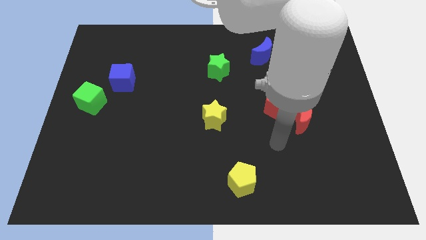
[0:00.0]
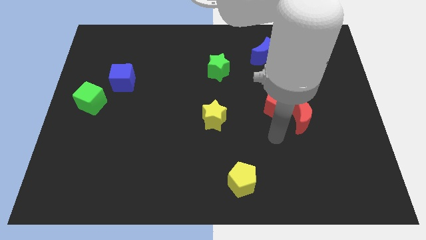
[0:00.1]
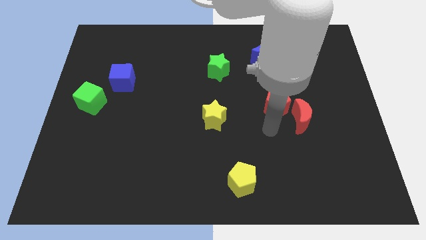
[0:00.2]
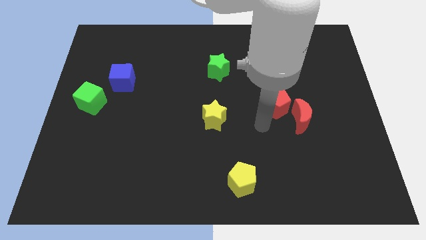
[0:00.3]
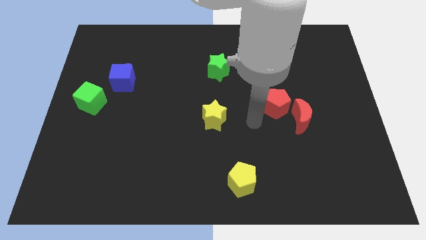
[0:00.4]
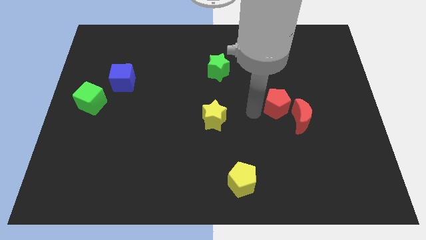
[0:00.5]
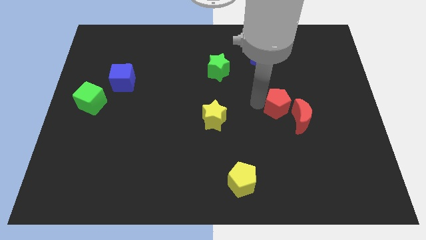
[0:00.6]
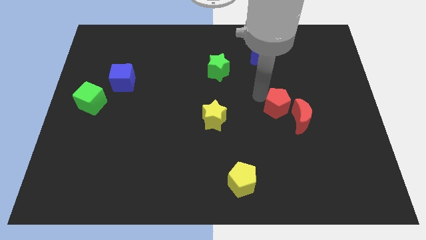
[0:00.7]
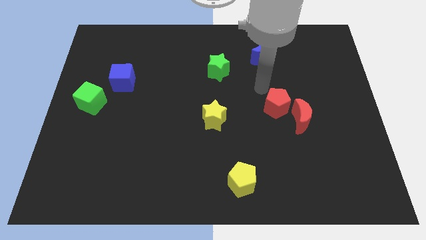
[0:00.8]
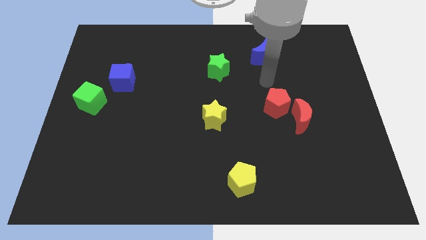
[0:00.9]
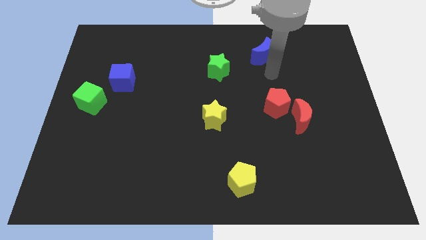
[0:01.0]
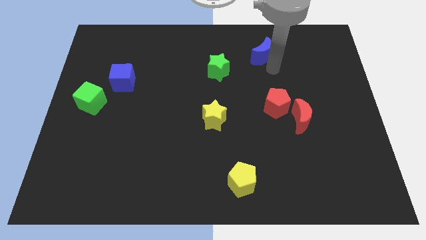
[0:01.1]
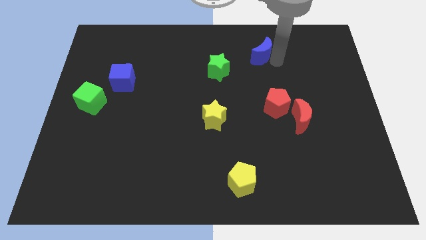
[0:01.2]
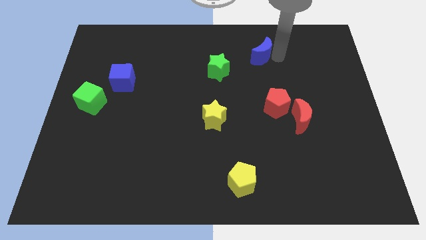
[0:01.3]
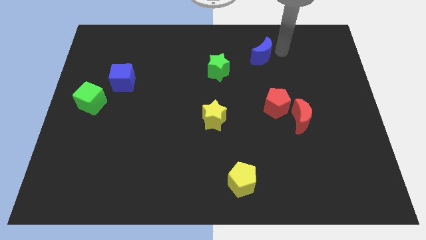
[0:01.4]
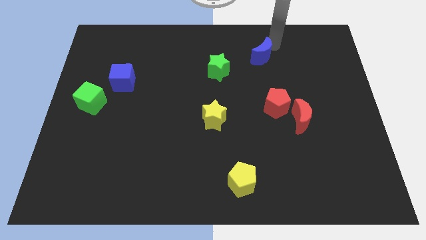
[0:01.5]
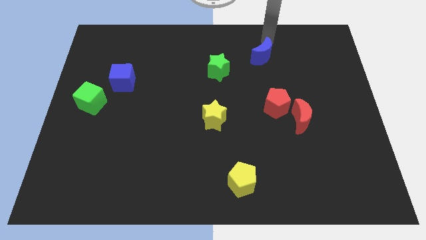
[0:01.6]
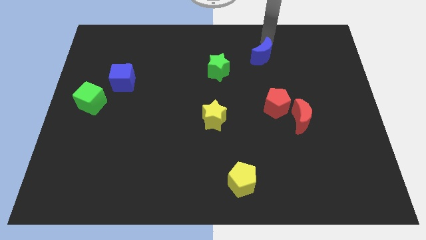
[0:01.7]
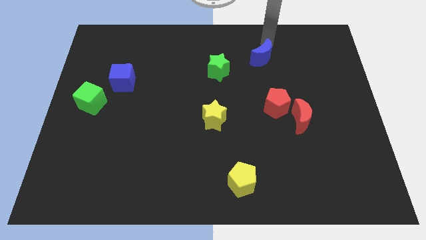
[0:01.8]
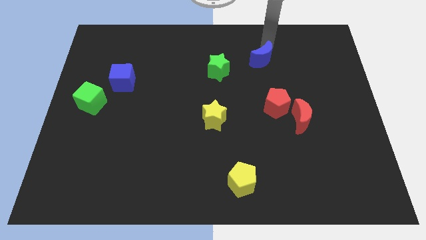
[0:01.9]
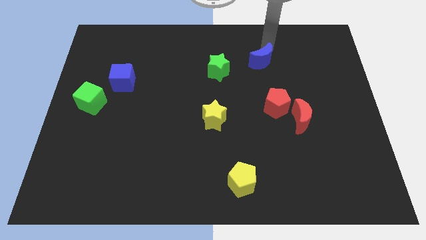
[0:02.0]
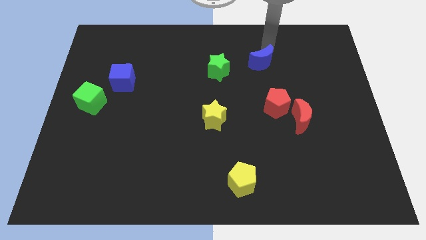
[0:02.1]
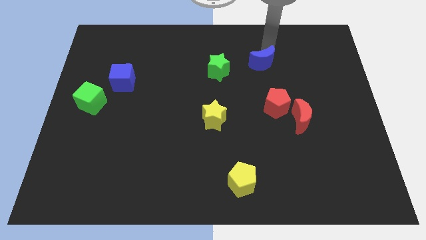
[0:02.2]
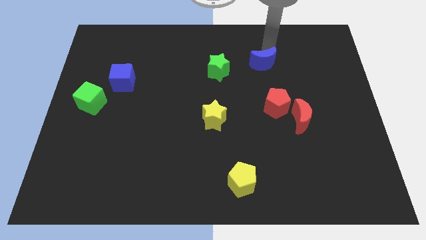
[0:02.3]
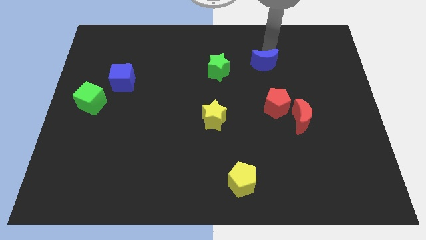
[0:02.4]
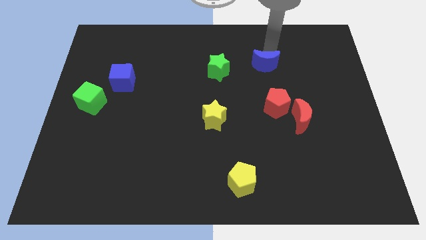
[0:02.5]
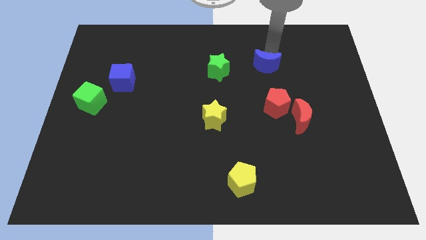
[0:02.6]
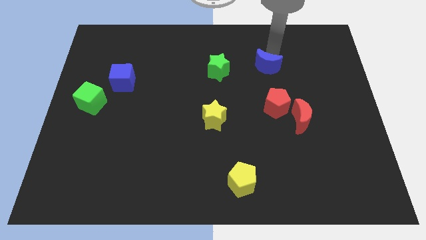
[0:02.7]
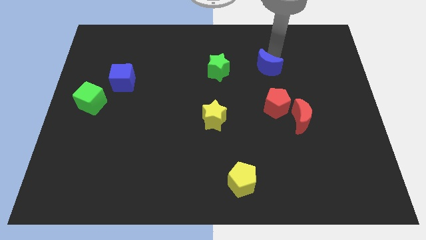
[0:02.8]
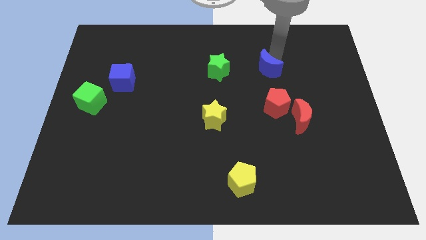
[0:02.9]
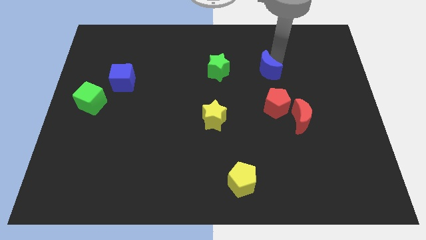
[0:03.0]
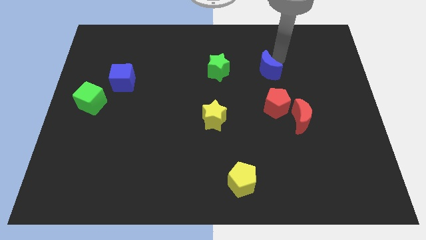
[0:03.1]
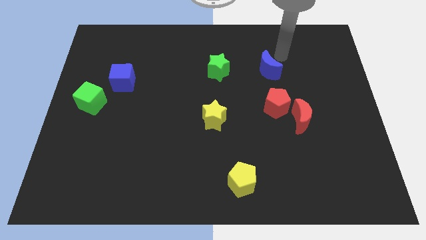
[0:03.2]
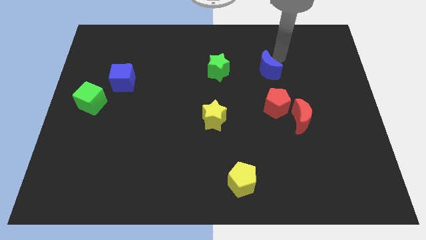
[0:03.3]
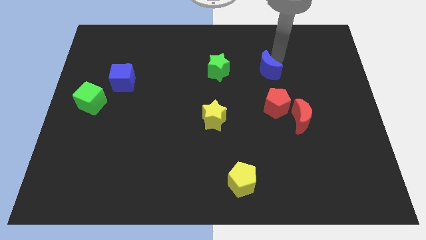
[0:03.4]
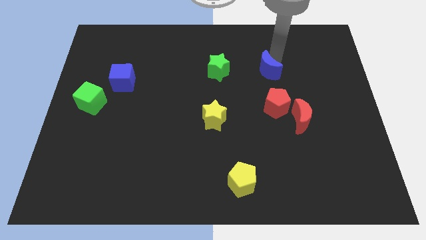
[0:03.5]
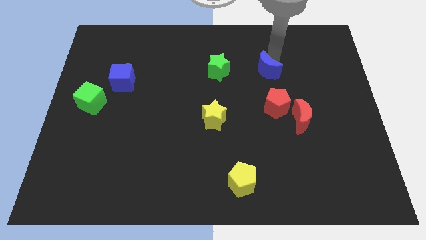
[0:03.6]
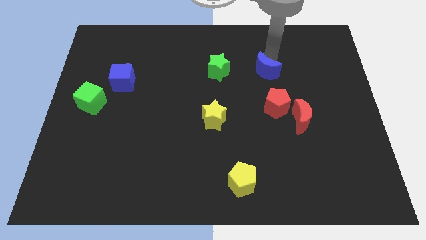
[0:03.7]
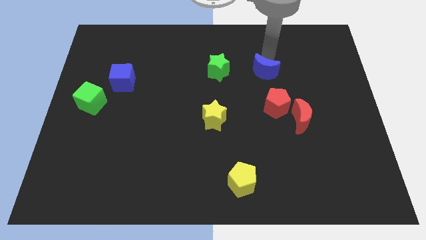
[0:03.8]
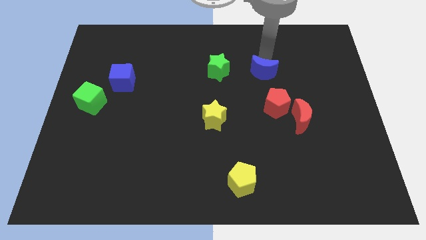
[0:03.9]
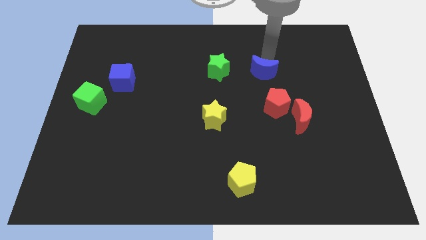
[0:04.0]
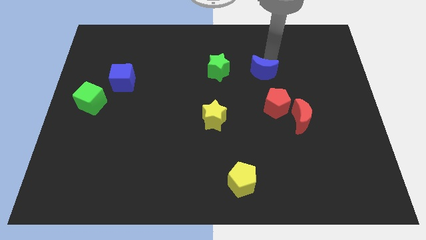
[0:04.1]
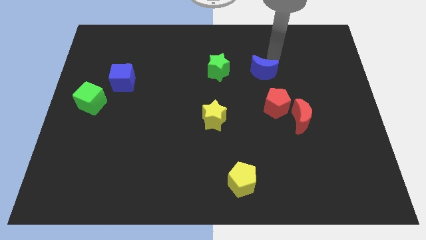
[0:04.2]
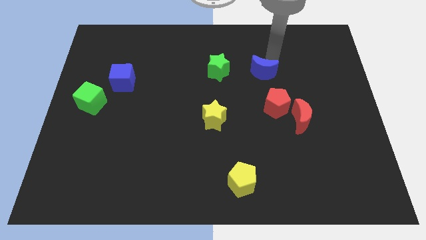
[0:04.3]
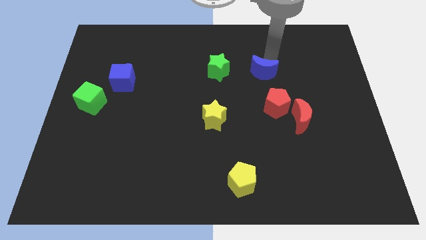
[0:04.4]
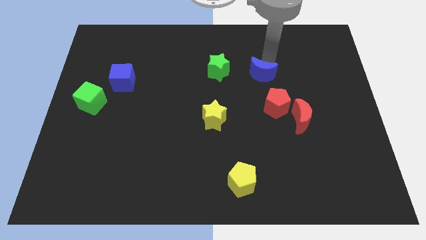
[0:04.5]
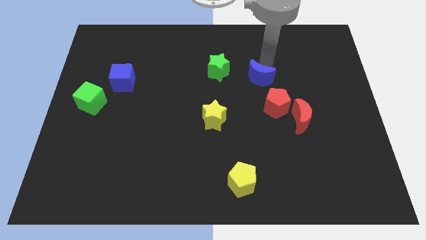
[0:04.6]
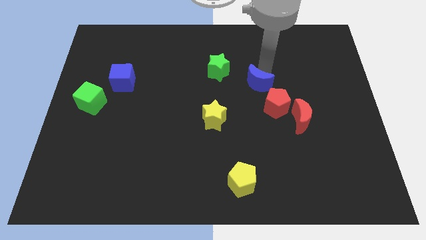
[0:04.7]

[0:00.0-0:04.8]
move the blue moon to the middle of the board

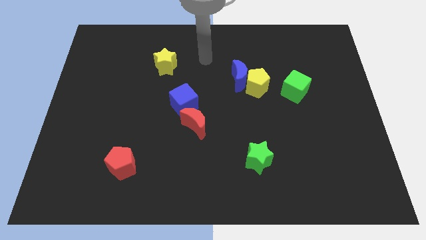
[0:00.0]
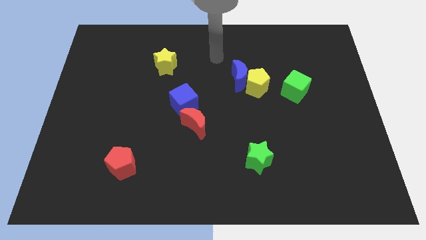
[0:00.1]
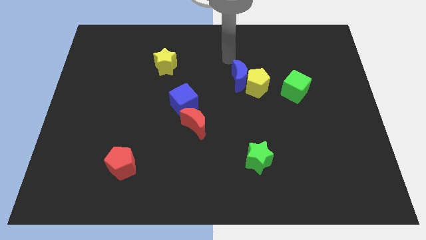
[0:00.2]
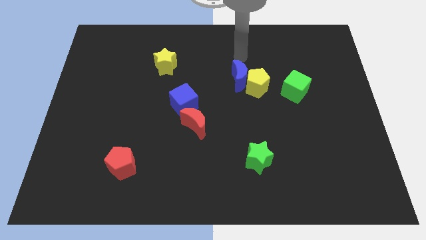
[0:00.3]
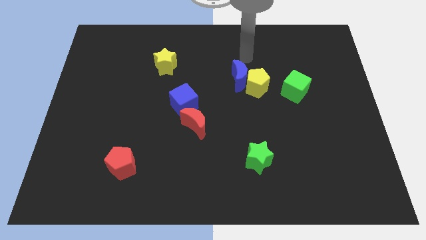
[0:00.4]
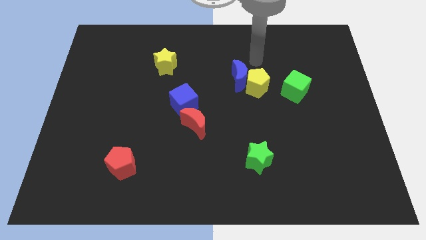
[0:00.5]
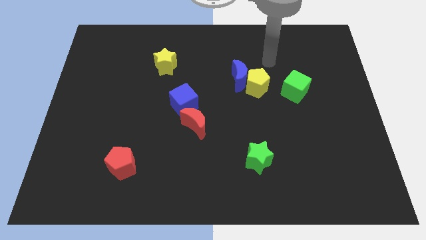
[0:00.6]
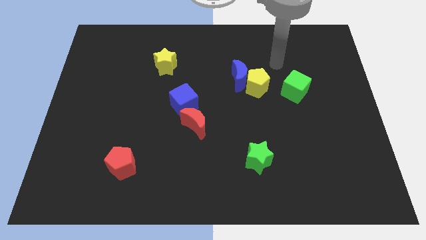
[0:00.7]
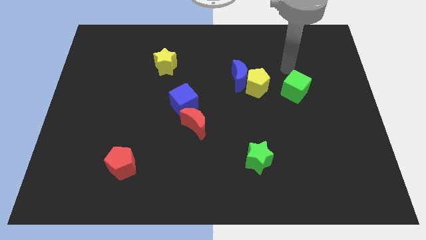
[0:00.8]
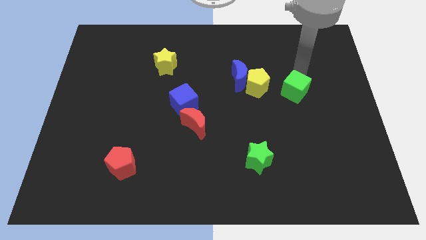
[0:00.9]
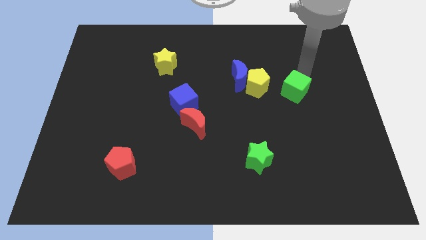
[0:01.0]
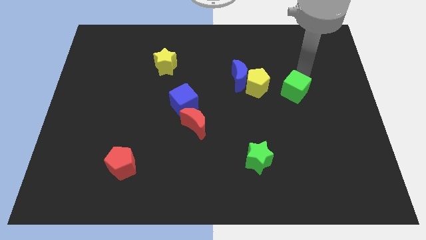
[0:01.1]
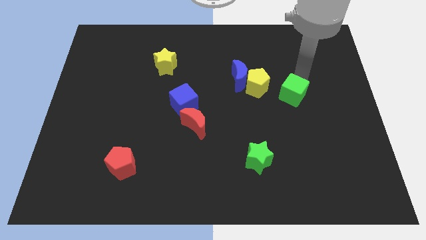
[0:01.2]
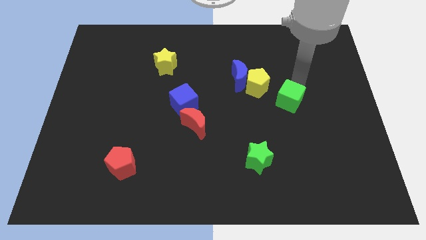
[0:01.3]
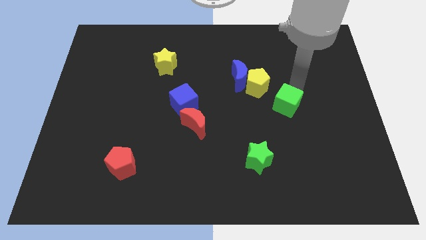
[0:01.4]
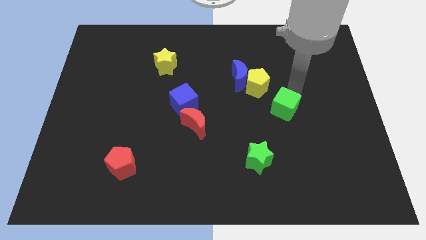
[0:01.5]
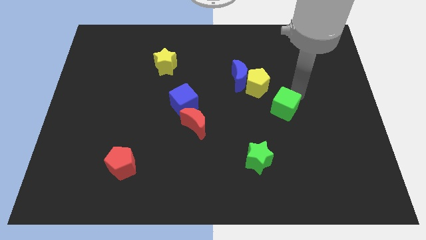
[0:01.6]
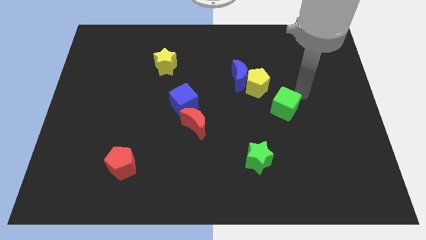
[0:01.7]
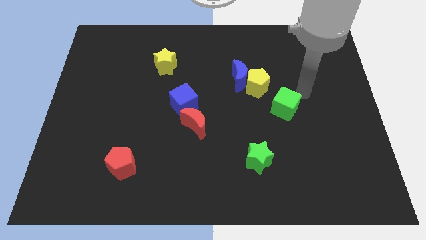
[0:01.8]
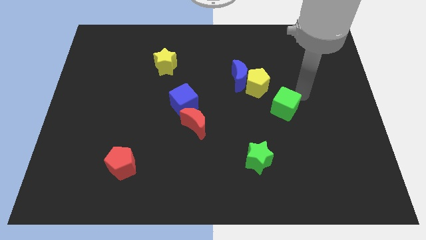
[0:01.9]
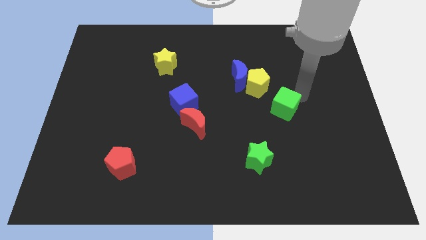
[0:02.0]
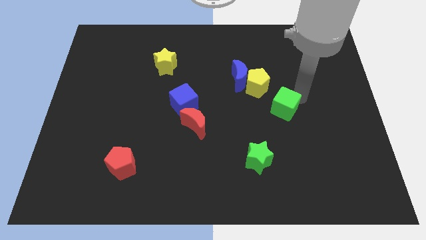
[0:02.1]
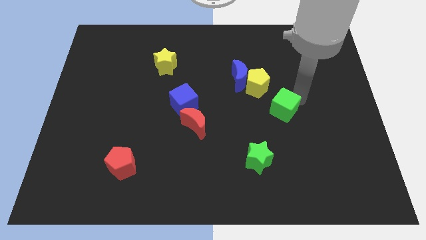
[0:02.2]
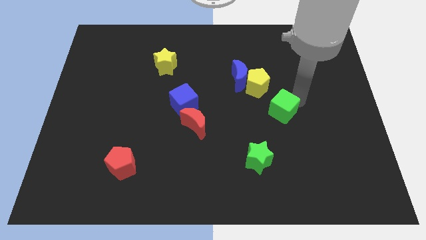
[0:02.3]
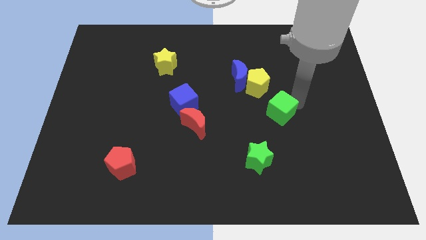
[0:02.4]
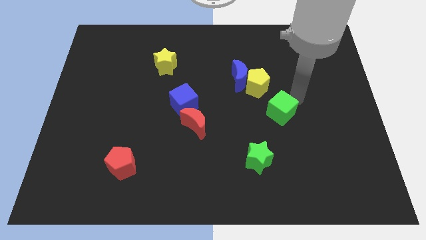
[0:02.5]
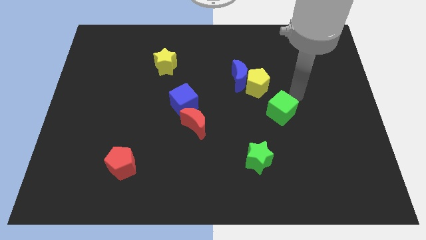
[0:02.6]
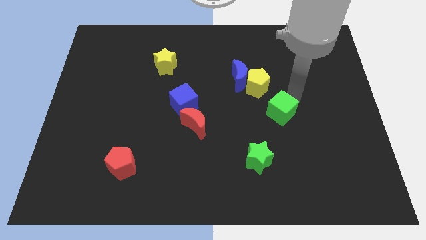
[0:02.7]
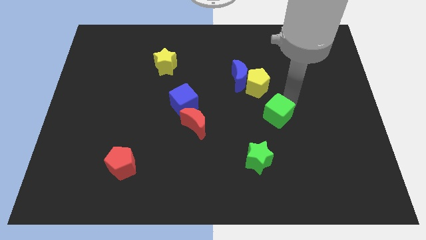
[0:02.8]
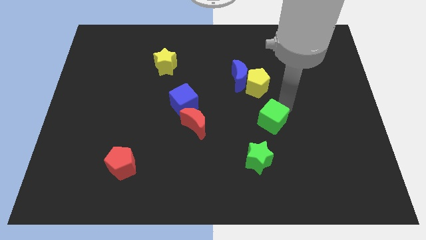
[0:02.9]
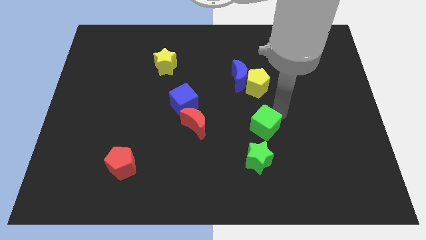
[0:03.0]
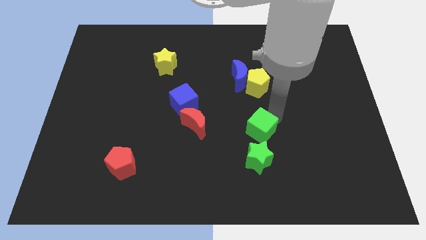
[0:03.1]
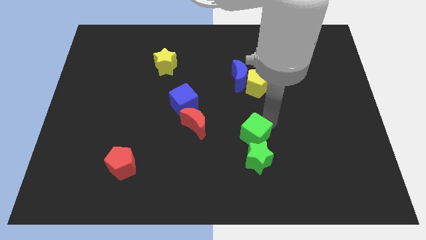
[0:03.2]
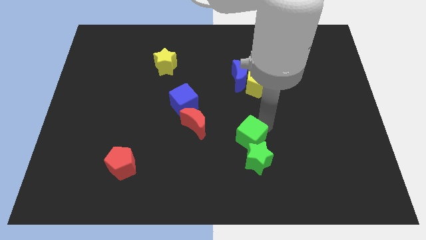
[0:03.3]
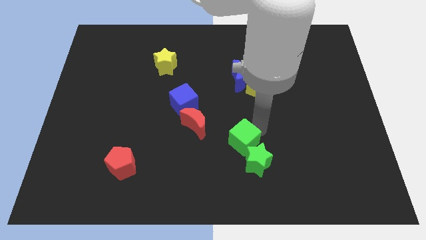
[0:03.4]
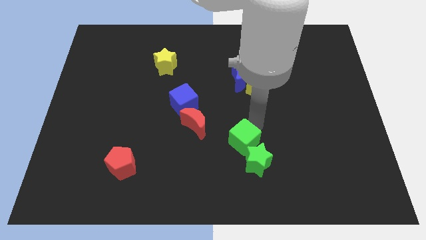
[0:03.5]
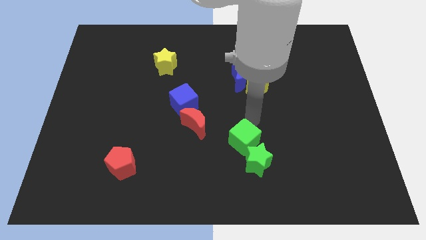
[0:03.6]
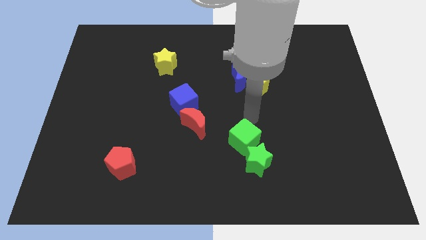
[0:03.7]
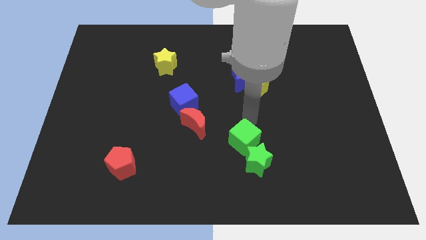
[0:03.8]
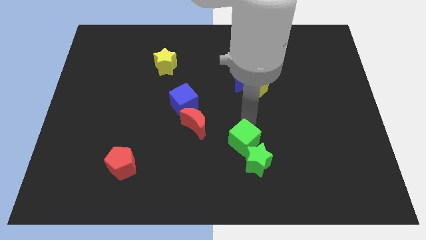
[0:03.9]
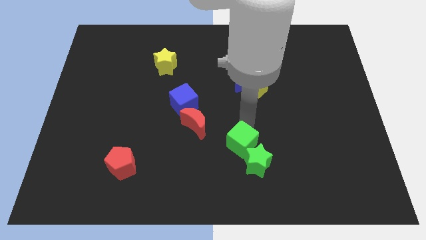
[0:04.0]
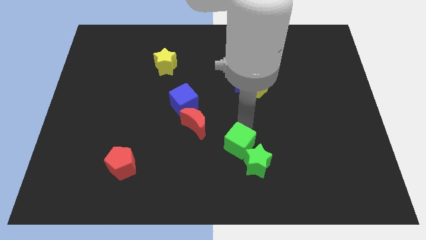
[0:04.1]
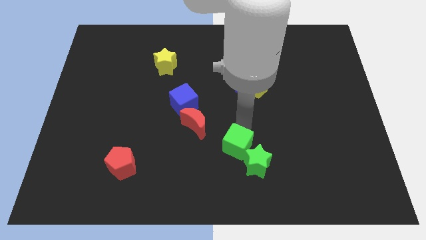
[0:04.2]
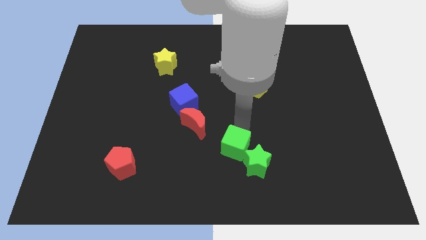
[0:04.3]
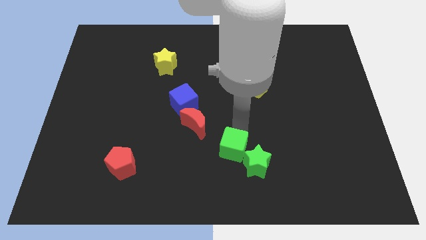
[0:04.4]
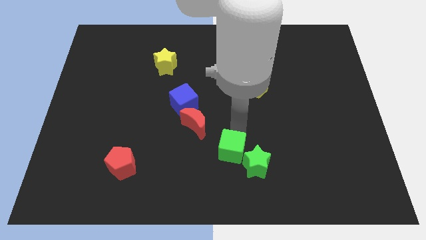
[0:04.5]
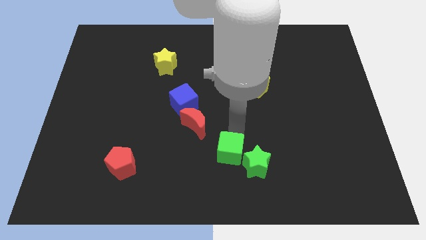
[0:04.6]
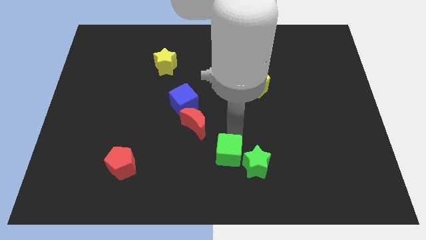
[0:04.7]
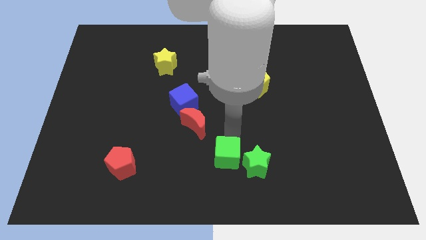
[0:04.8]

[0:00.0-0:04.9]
move the green cube to the bottom
